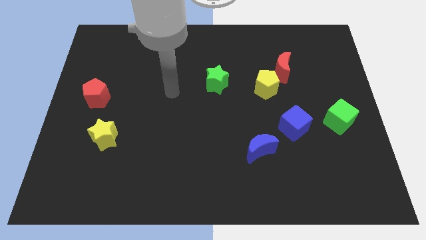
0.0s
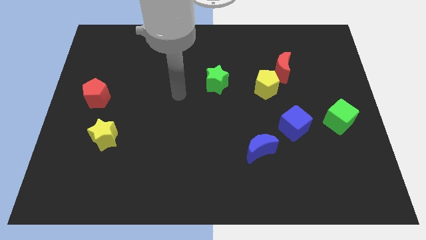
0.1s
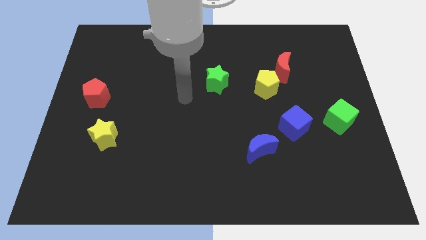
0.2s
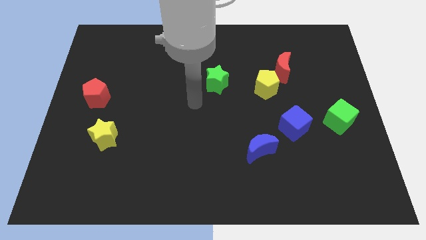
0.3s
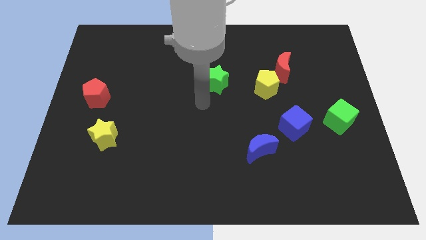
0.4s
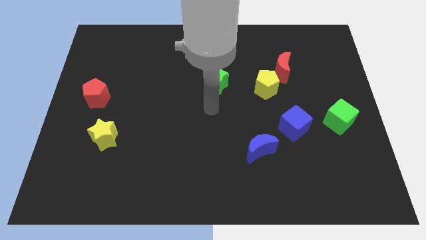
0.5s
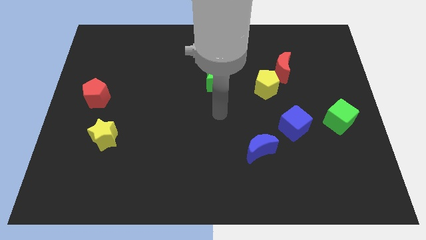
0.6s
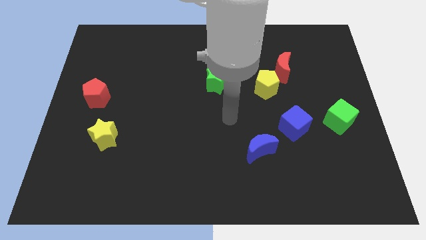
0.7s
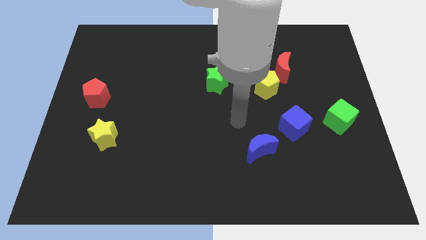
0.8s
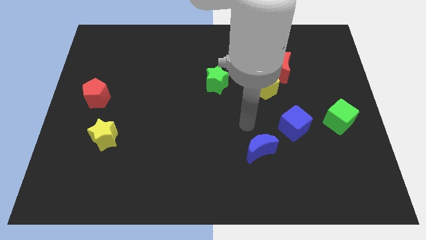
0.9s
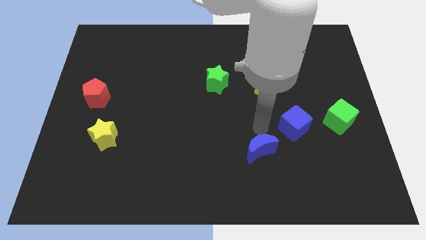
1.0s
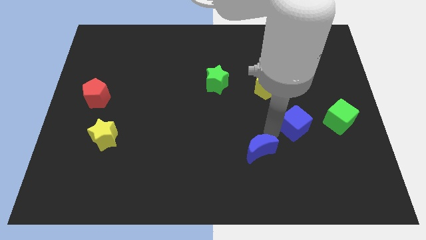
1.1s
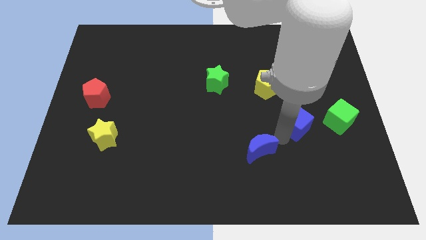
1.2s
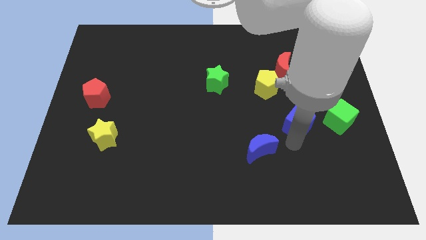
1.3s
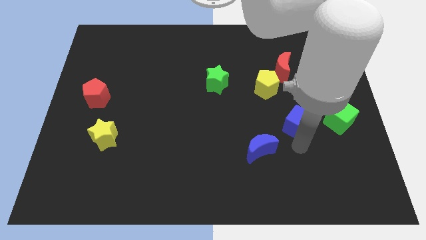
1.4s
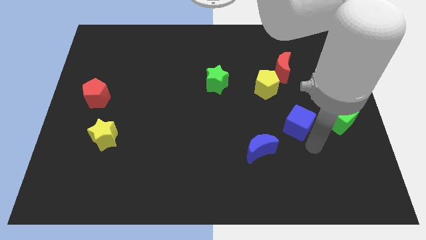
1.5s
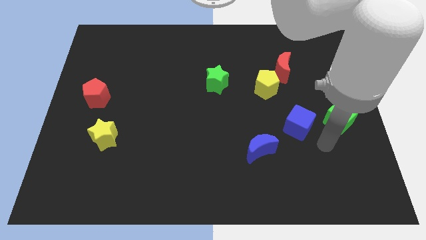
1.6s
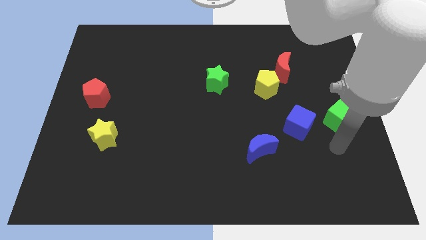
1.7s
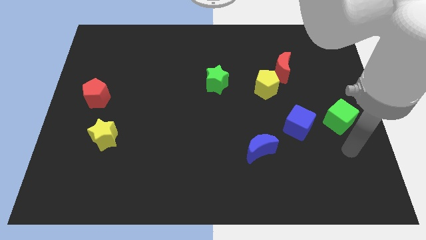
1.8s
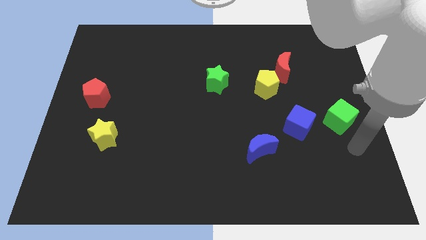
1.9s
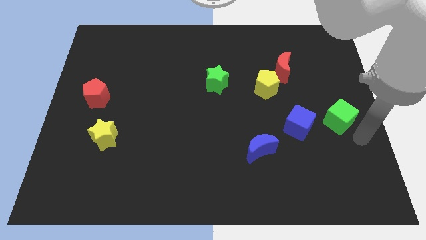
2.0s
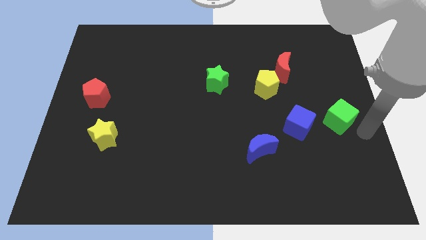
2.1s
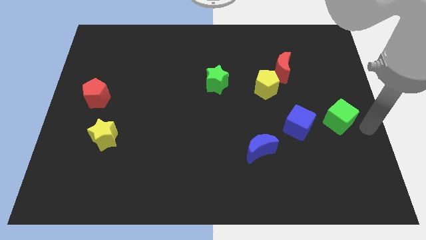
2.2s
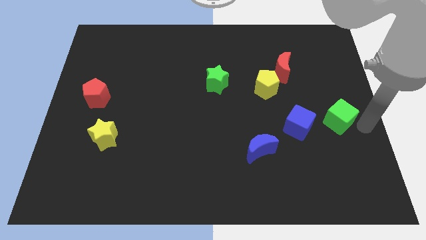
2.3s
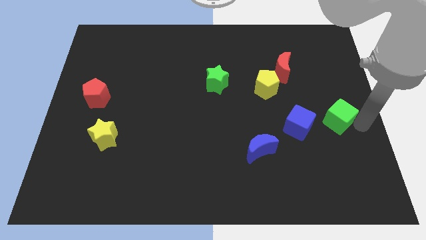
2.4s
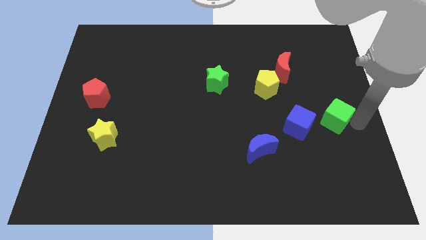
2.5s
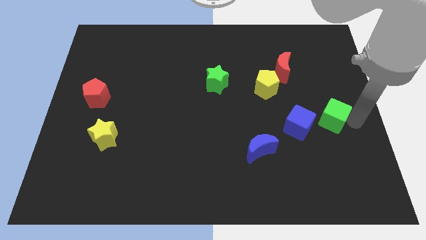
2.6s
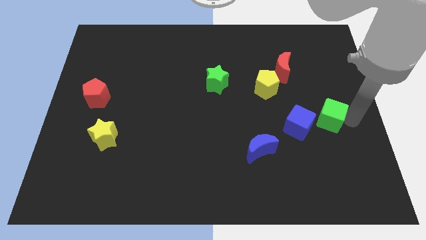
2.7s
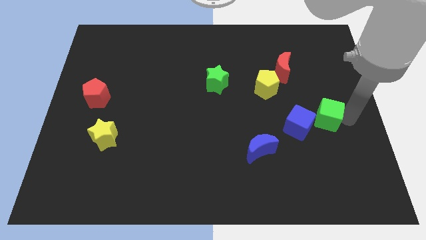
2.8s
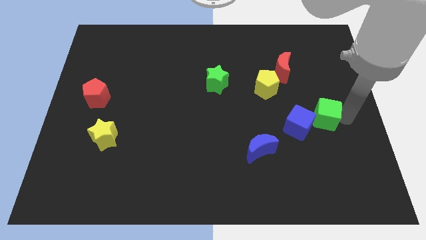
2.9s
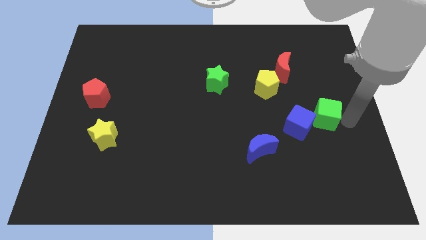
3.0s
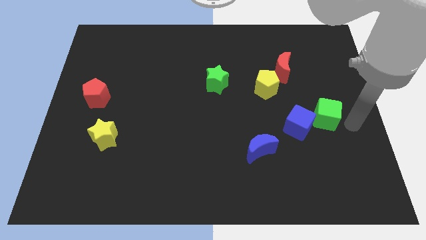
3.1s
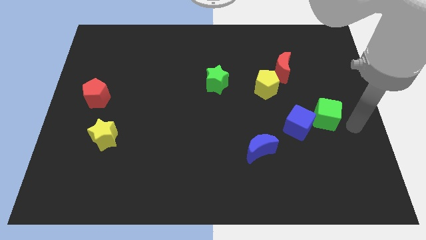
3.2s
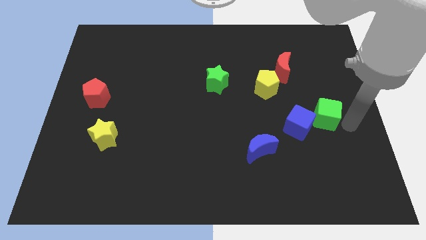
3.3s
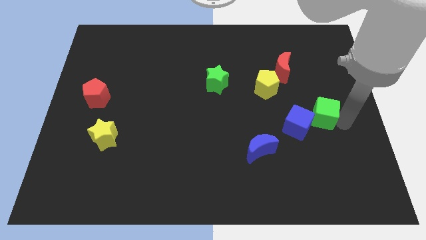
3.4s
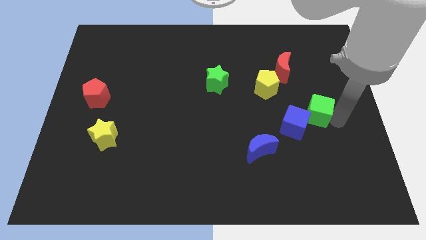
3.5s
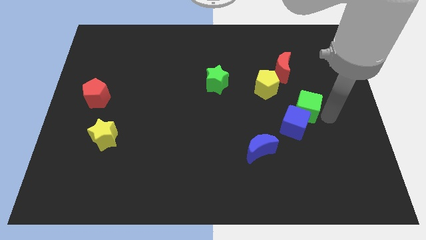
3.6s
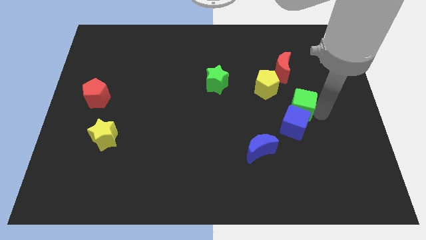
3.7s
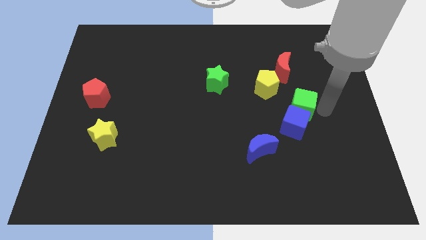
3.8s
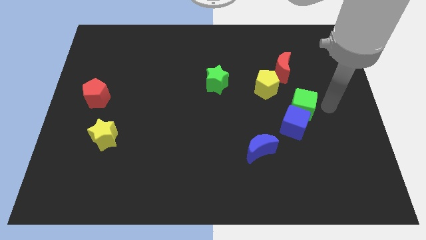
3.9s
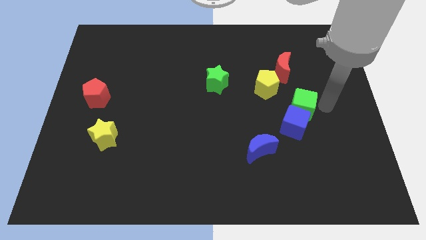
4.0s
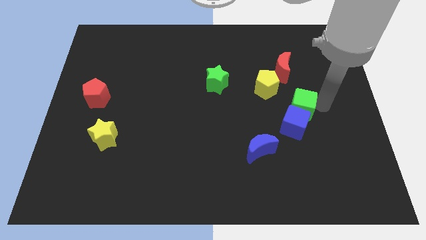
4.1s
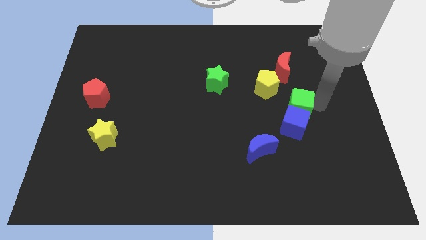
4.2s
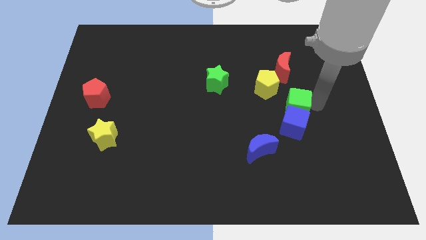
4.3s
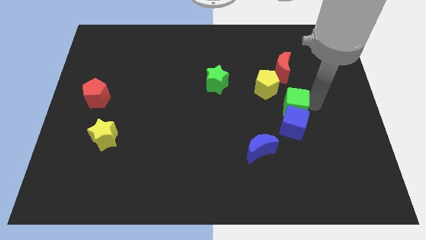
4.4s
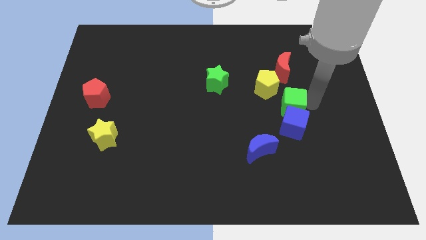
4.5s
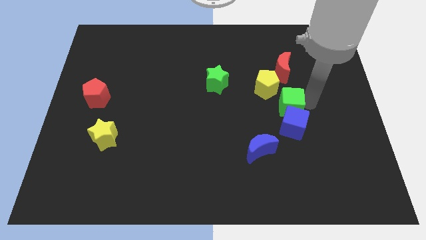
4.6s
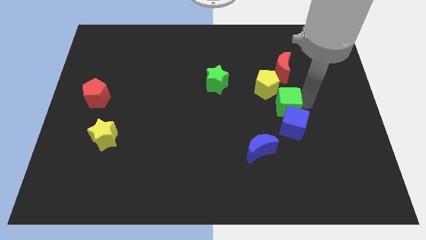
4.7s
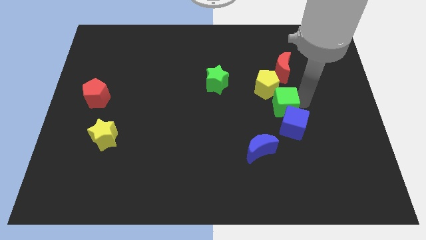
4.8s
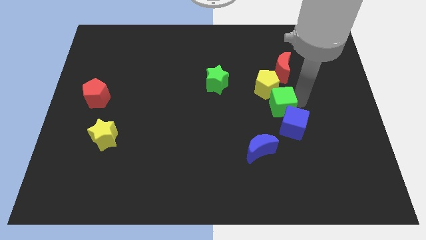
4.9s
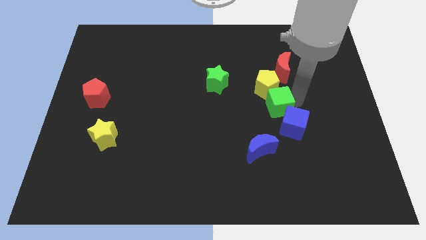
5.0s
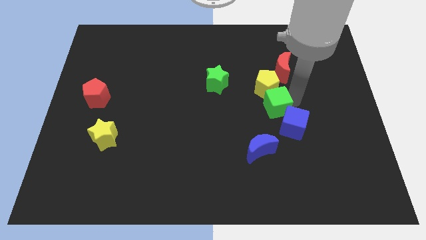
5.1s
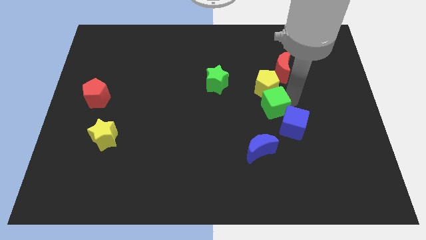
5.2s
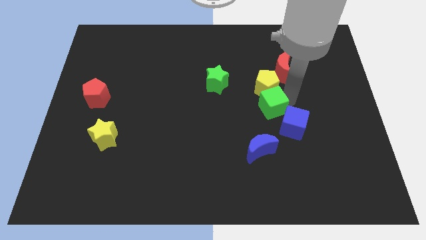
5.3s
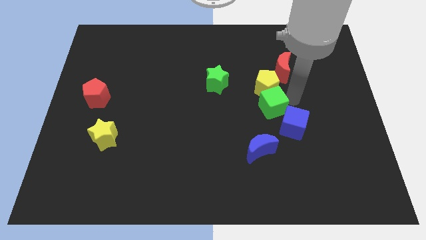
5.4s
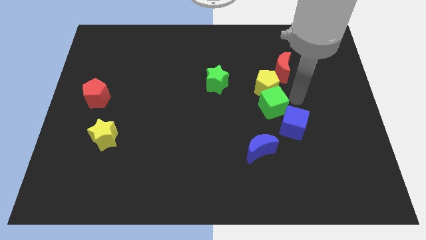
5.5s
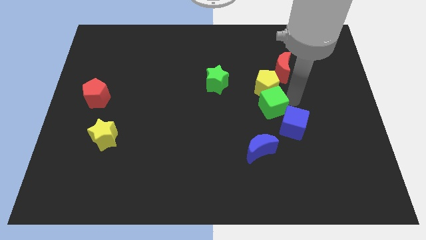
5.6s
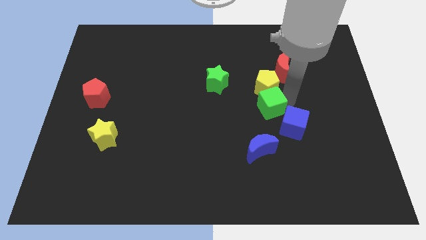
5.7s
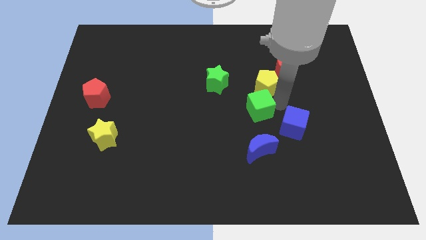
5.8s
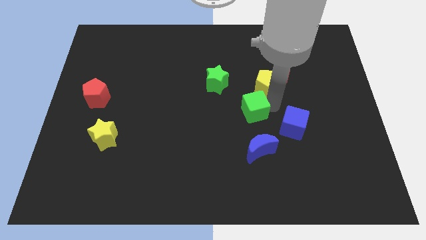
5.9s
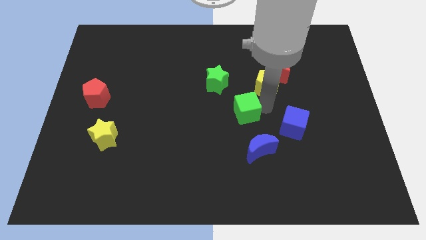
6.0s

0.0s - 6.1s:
move the green cube to the left

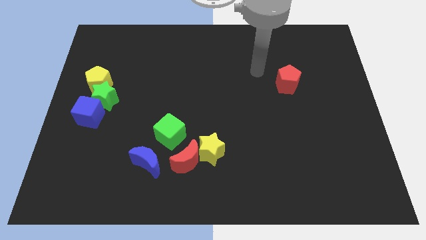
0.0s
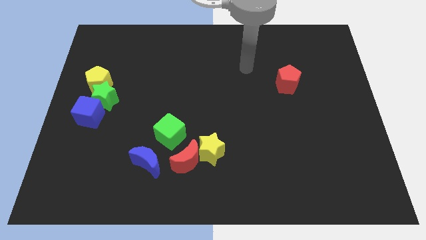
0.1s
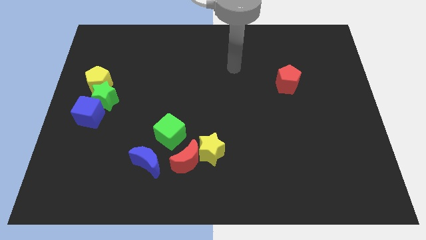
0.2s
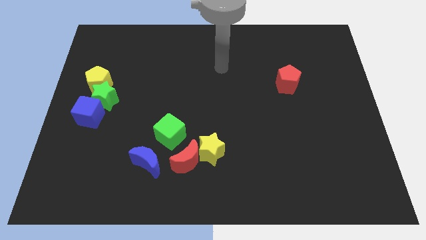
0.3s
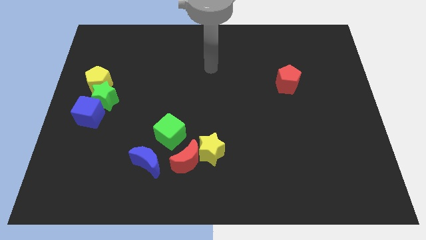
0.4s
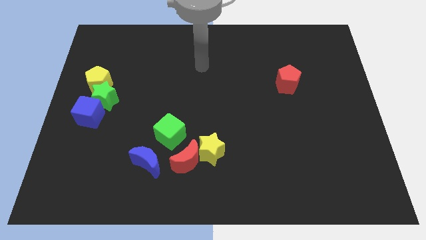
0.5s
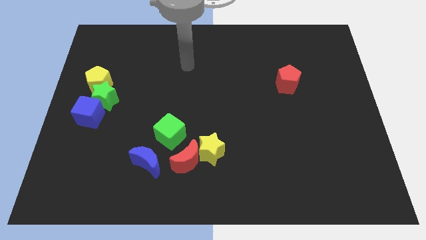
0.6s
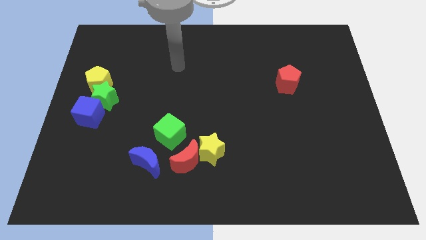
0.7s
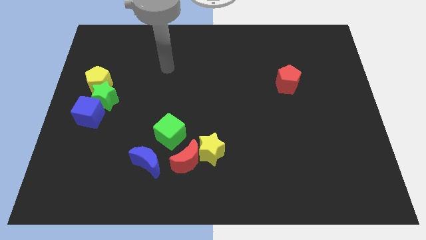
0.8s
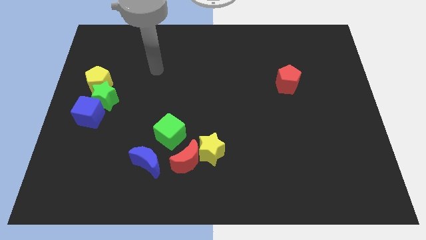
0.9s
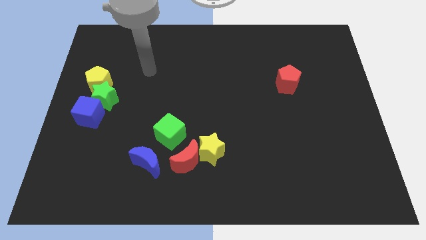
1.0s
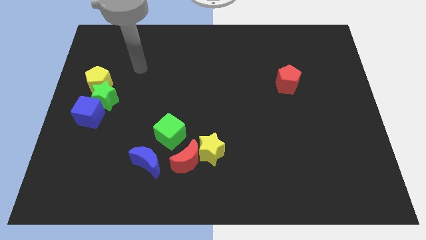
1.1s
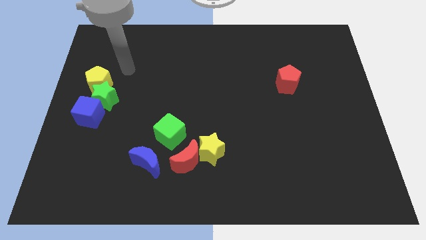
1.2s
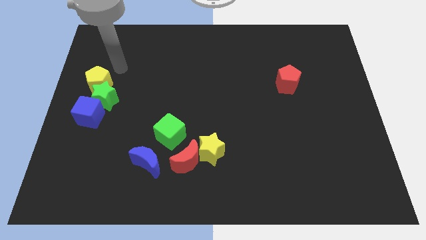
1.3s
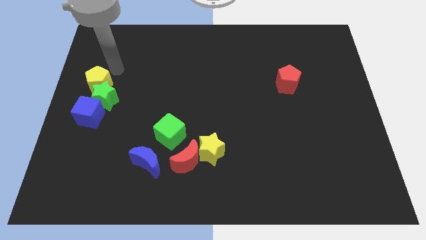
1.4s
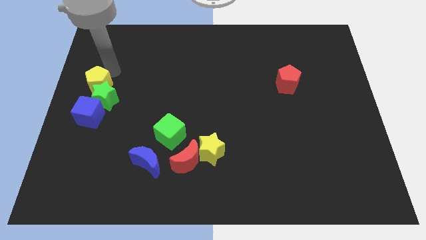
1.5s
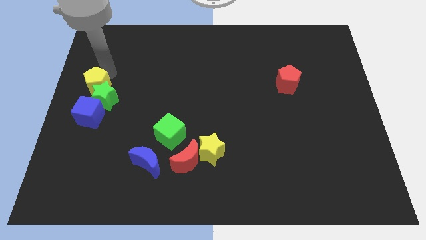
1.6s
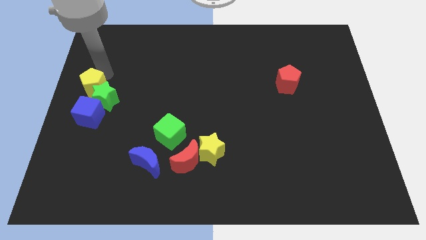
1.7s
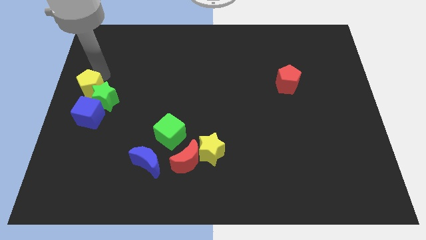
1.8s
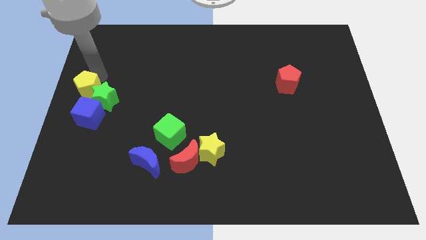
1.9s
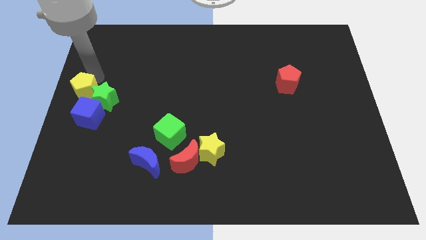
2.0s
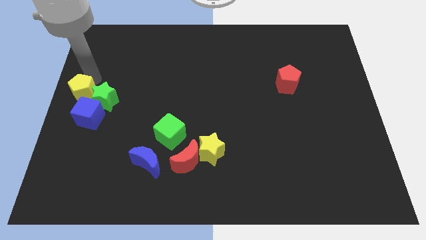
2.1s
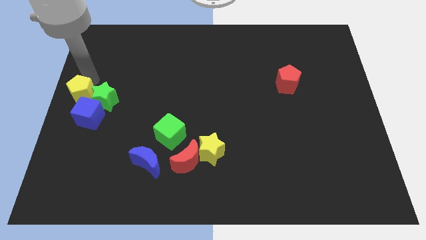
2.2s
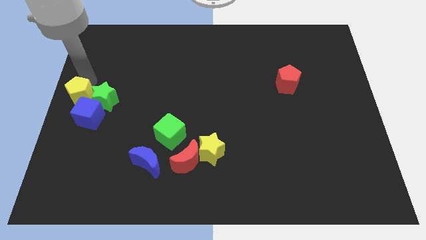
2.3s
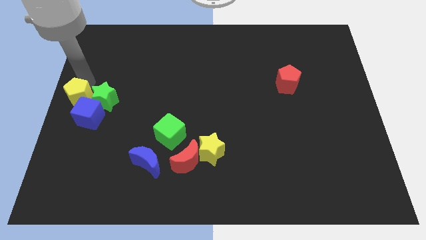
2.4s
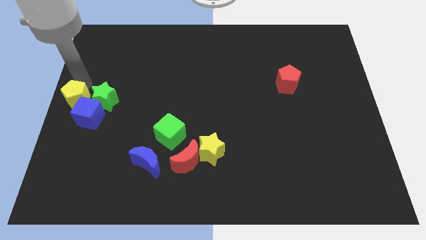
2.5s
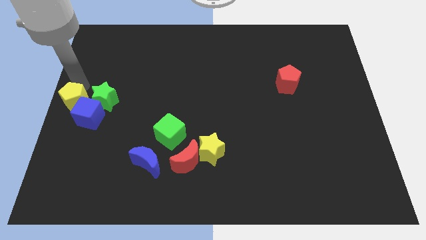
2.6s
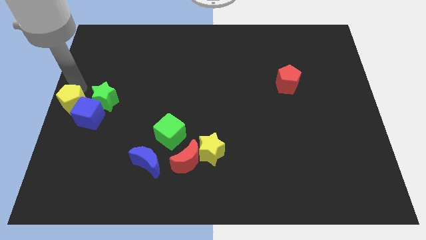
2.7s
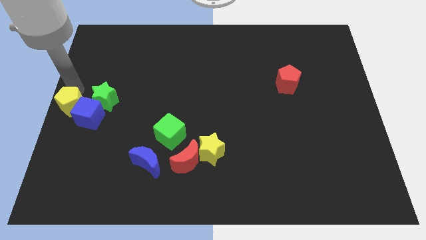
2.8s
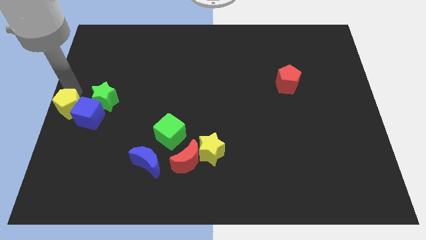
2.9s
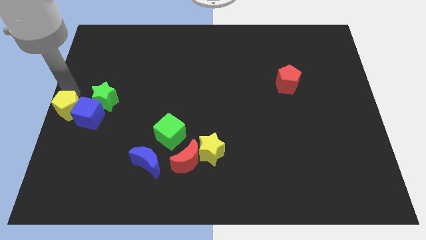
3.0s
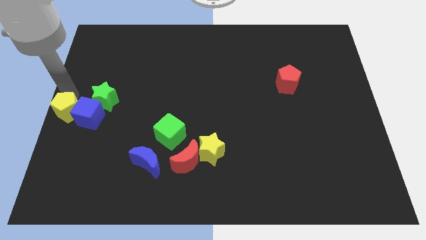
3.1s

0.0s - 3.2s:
slide the yellow pentagon slightly down
